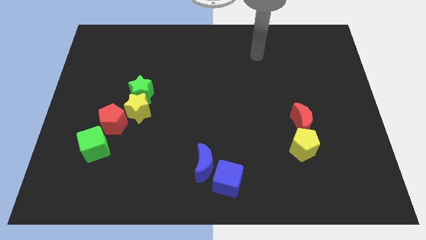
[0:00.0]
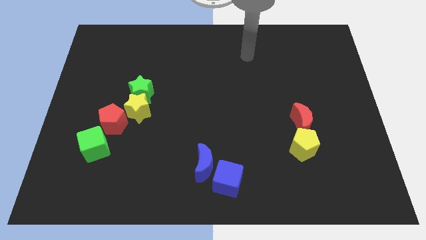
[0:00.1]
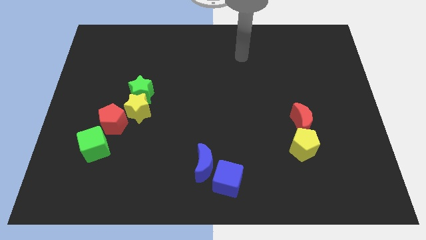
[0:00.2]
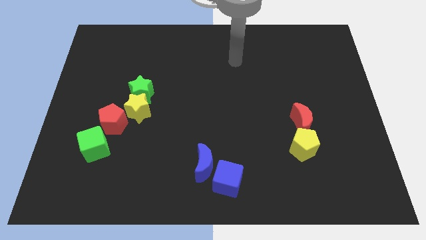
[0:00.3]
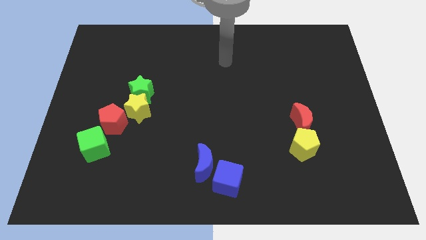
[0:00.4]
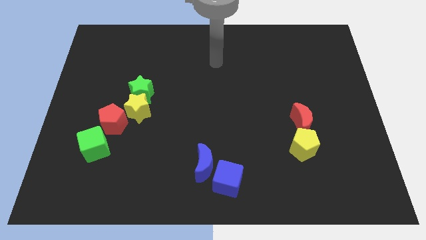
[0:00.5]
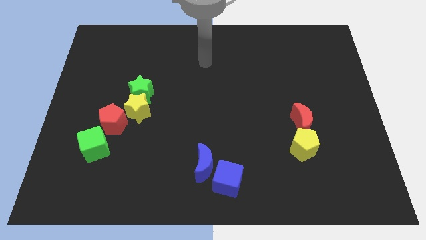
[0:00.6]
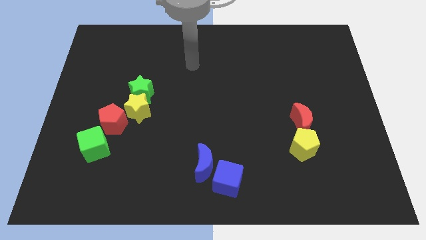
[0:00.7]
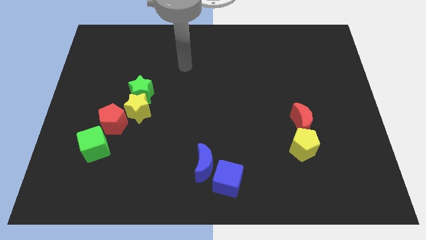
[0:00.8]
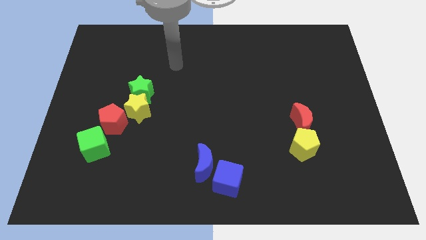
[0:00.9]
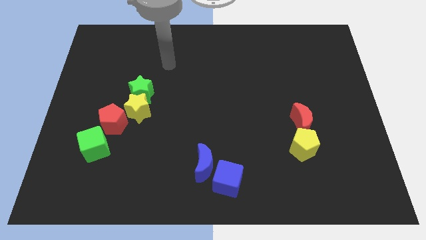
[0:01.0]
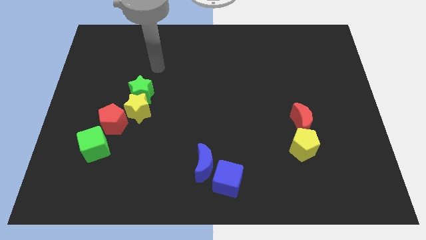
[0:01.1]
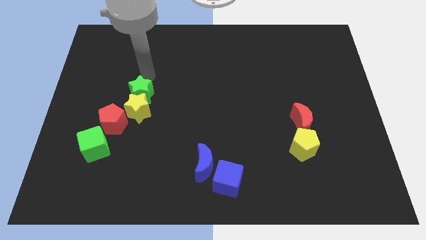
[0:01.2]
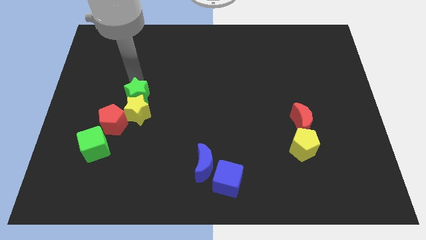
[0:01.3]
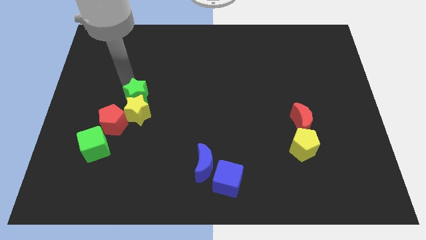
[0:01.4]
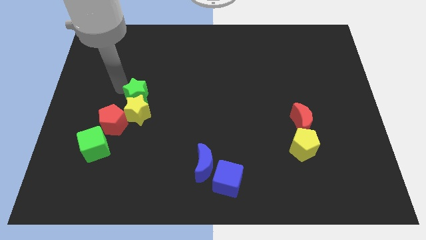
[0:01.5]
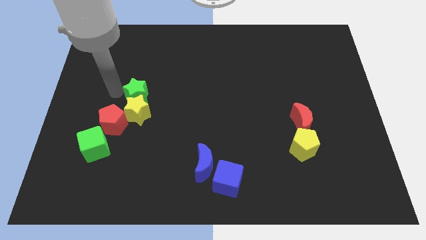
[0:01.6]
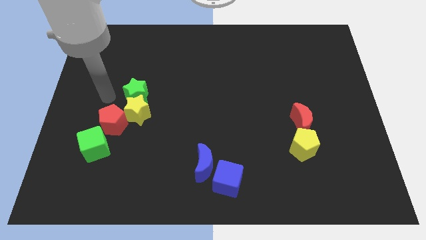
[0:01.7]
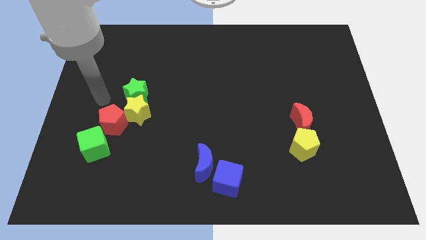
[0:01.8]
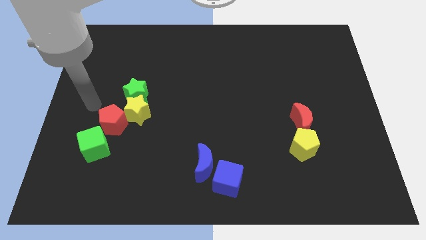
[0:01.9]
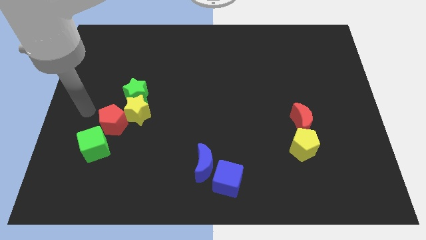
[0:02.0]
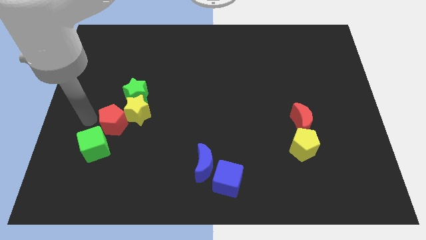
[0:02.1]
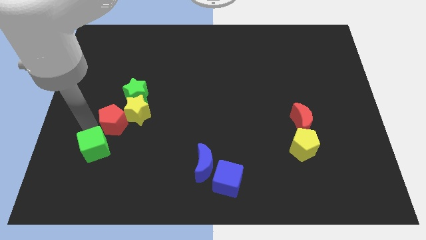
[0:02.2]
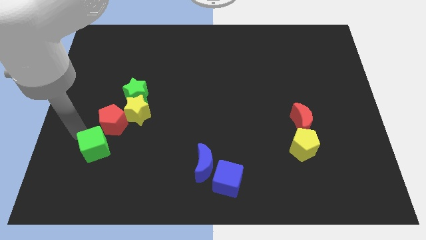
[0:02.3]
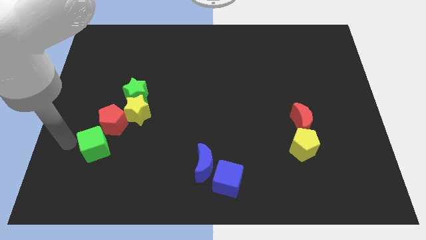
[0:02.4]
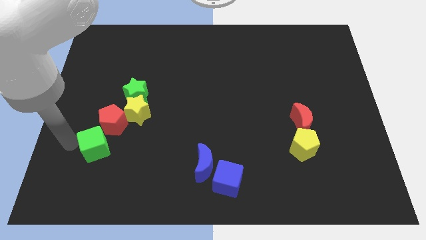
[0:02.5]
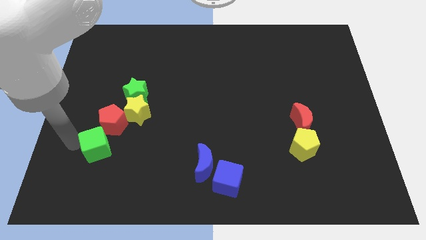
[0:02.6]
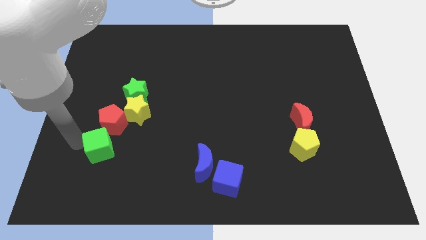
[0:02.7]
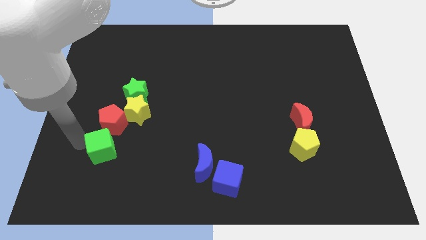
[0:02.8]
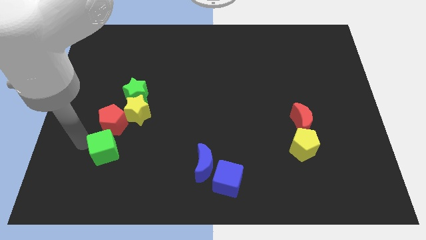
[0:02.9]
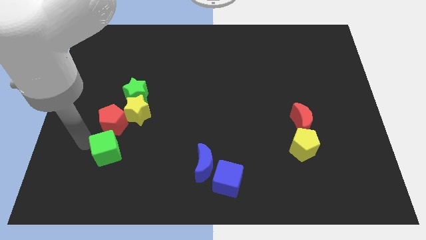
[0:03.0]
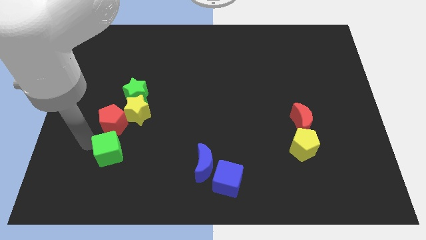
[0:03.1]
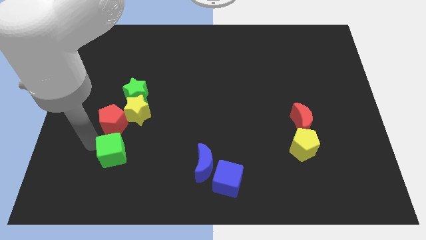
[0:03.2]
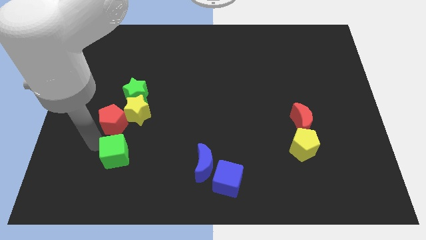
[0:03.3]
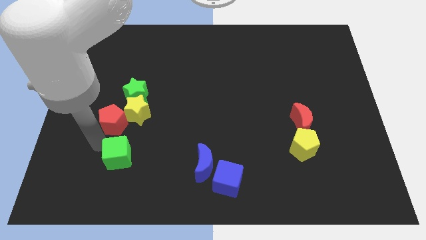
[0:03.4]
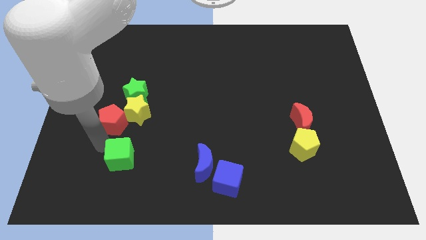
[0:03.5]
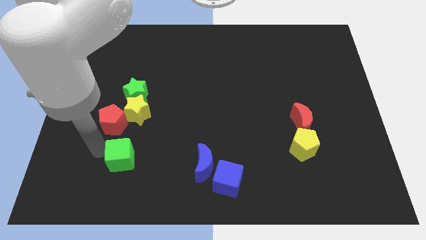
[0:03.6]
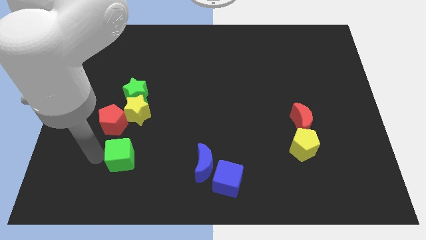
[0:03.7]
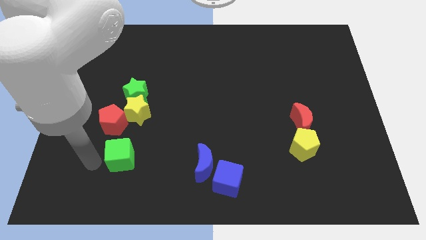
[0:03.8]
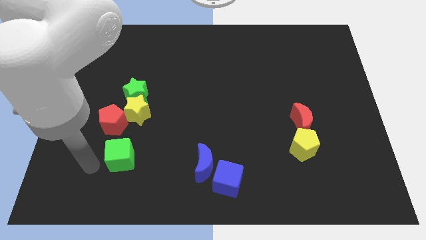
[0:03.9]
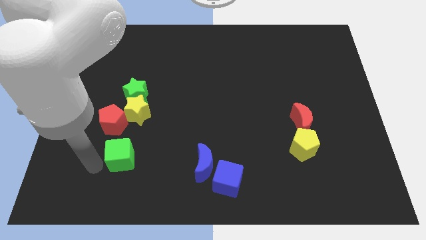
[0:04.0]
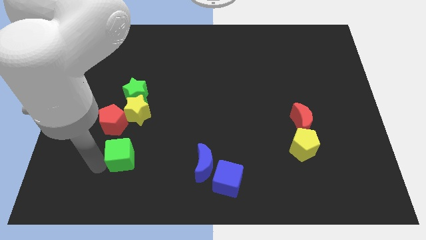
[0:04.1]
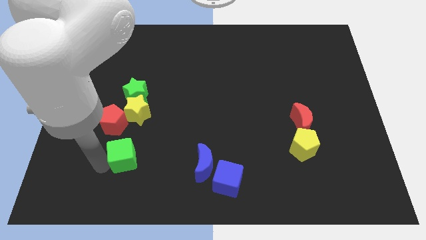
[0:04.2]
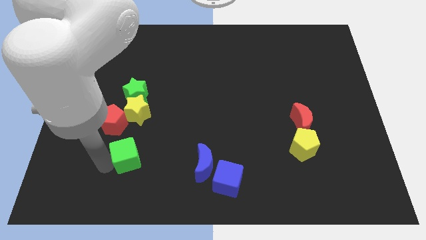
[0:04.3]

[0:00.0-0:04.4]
push the green cube a little right

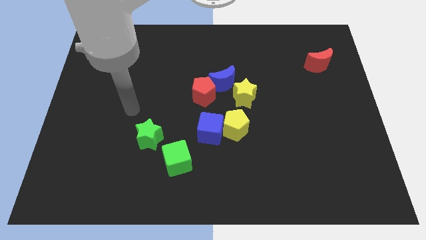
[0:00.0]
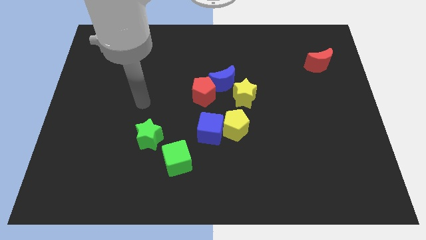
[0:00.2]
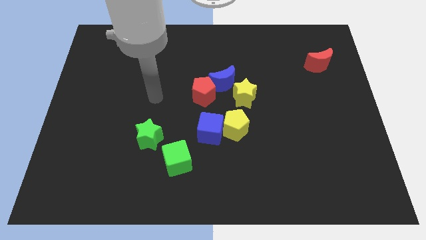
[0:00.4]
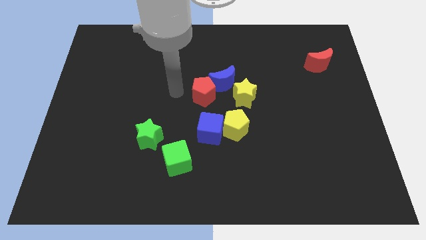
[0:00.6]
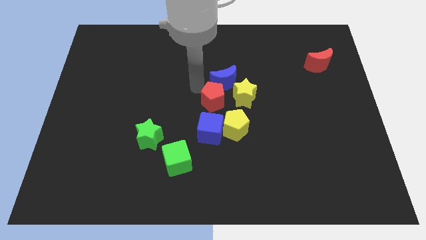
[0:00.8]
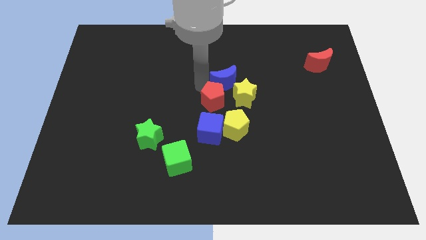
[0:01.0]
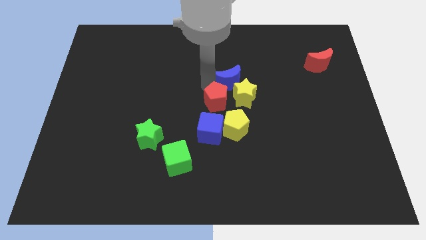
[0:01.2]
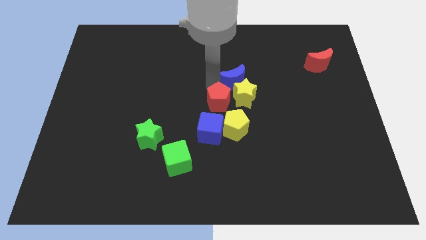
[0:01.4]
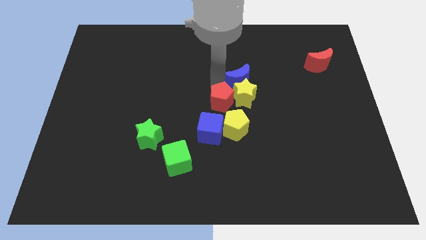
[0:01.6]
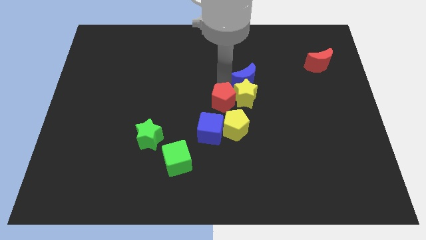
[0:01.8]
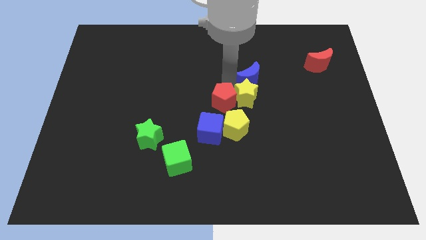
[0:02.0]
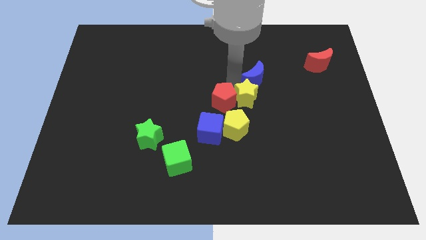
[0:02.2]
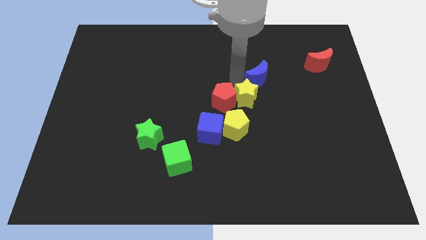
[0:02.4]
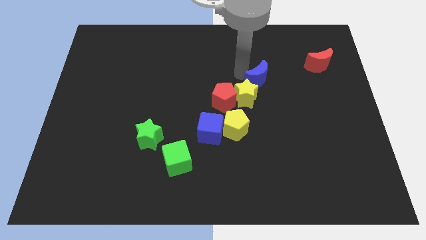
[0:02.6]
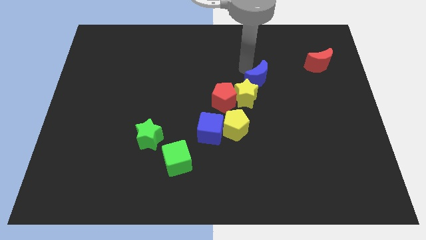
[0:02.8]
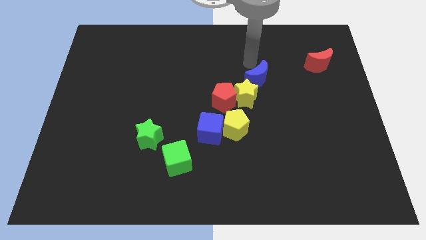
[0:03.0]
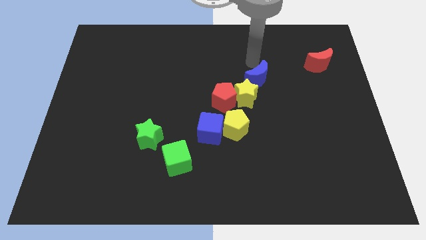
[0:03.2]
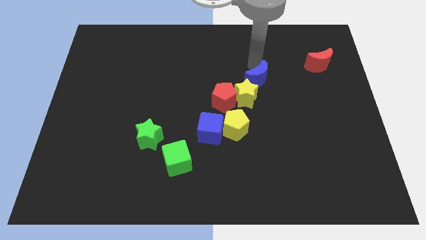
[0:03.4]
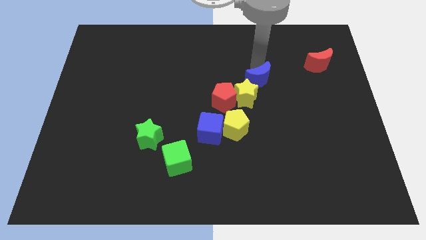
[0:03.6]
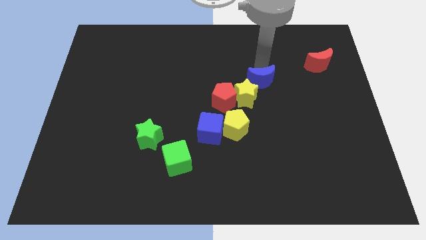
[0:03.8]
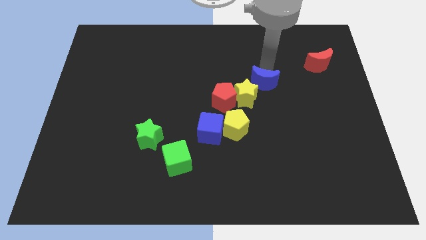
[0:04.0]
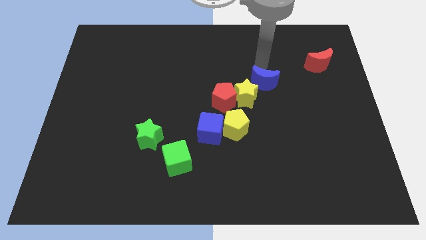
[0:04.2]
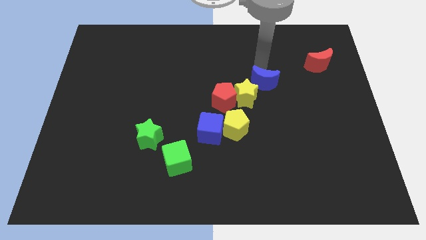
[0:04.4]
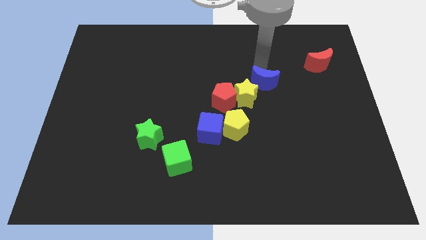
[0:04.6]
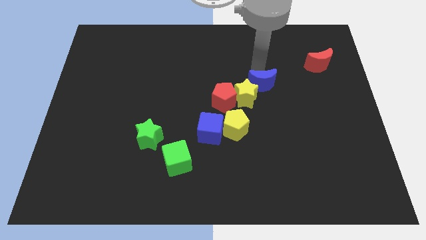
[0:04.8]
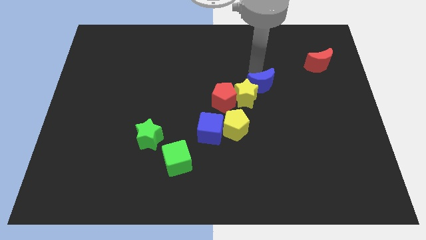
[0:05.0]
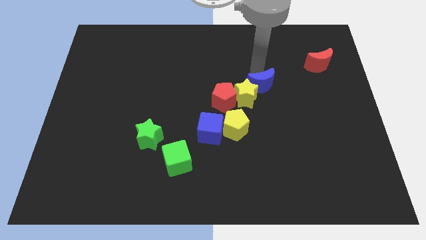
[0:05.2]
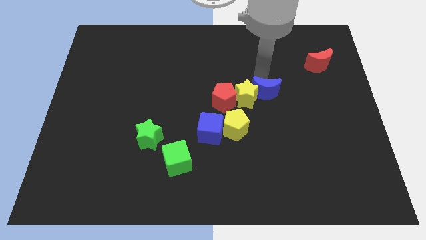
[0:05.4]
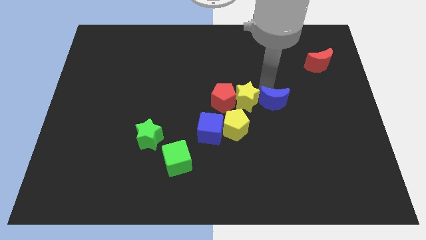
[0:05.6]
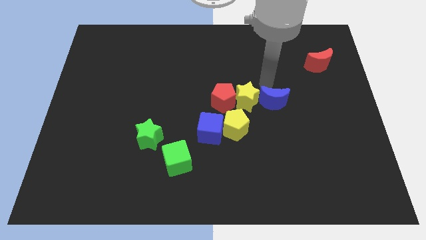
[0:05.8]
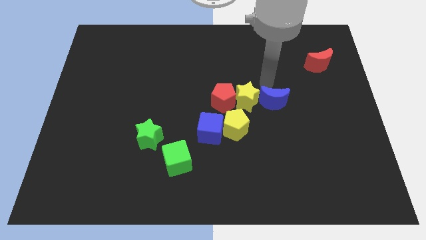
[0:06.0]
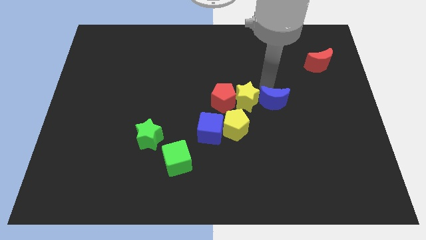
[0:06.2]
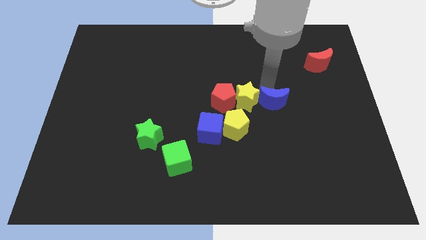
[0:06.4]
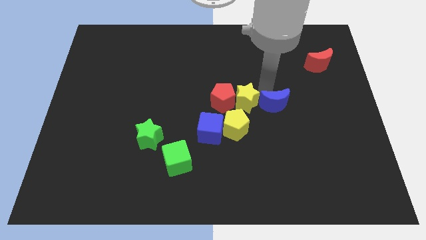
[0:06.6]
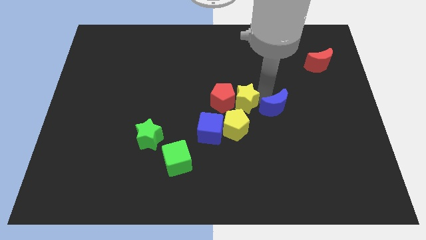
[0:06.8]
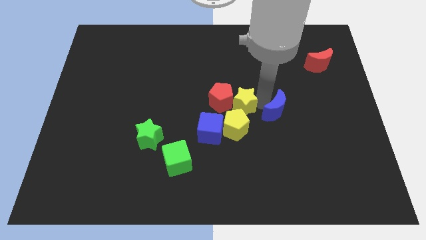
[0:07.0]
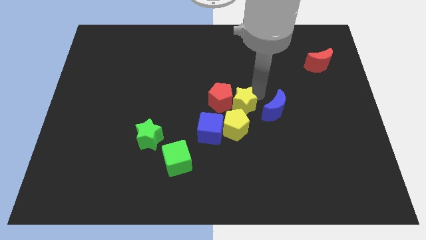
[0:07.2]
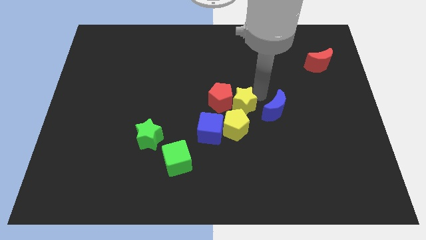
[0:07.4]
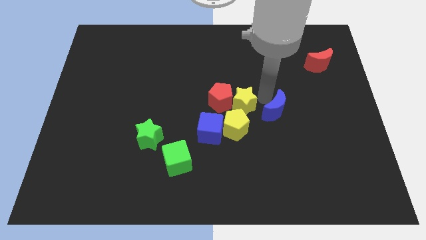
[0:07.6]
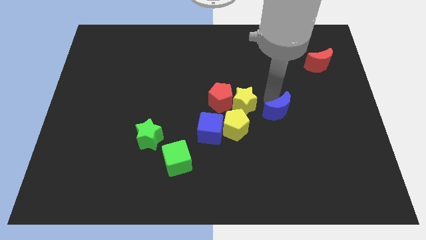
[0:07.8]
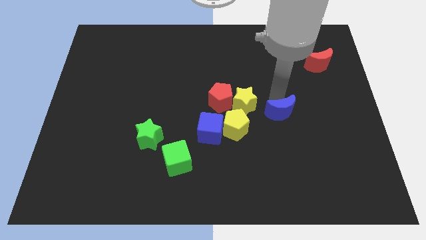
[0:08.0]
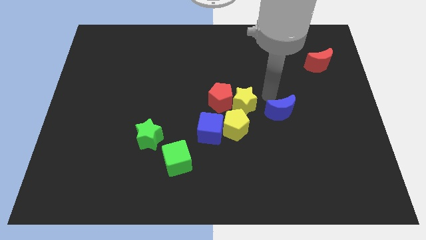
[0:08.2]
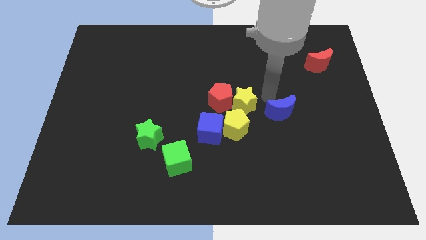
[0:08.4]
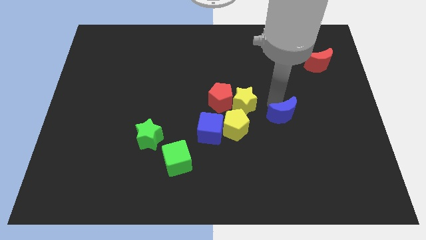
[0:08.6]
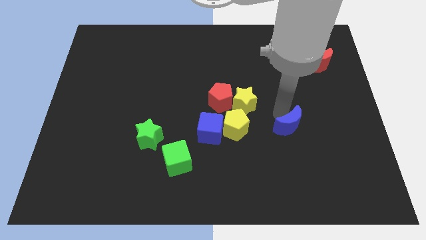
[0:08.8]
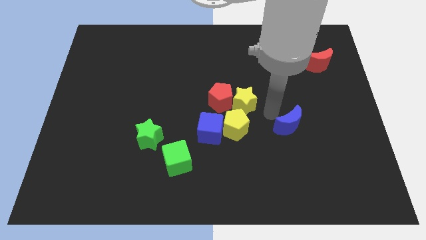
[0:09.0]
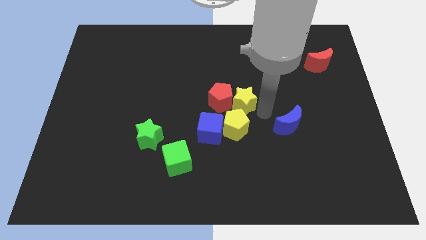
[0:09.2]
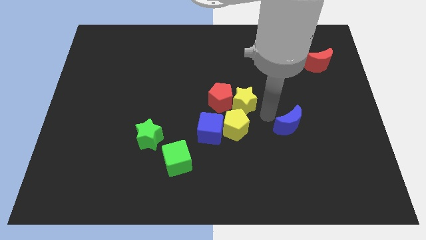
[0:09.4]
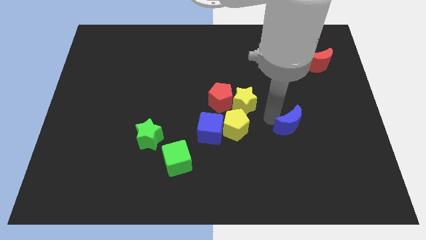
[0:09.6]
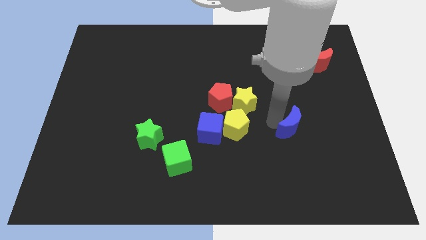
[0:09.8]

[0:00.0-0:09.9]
push the blue moon diagonally down and to the right
